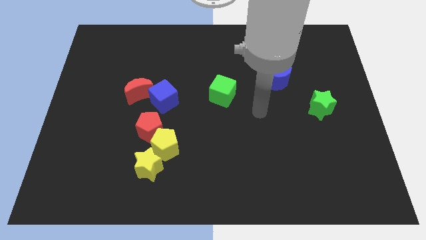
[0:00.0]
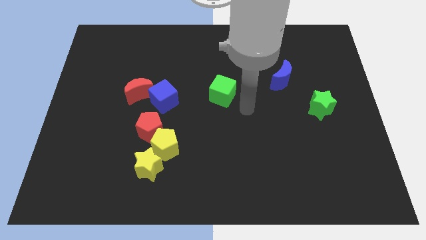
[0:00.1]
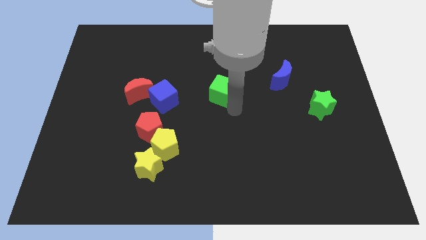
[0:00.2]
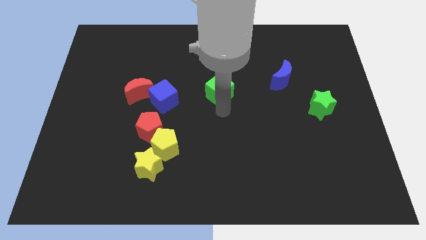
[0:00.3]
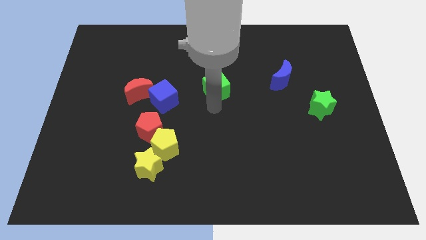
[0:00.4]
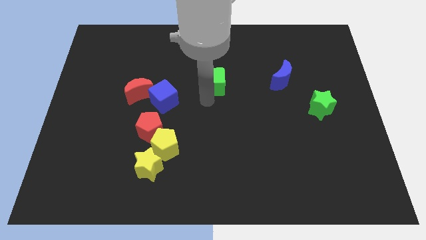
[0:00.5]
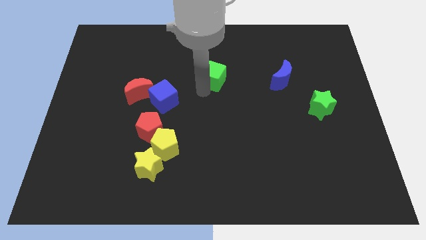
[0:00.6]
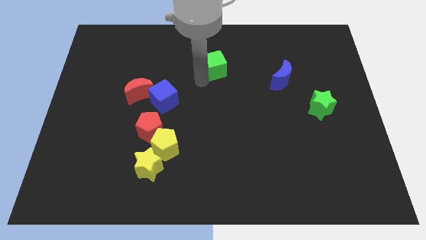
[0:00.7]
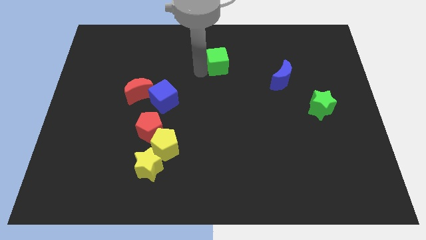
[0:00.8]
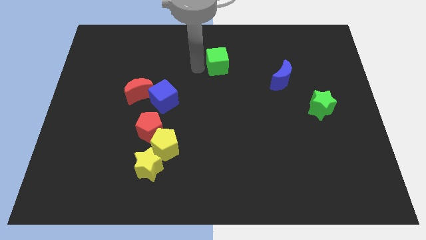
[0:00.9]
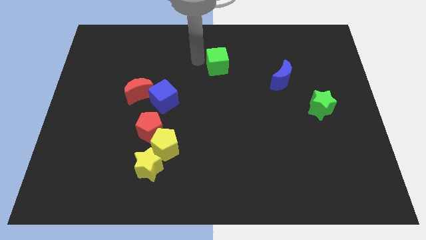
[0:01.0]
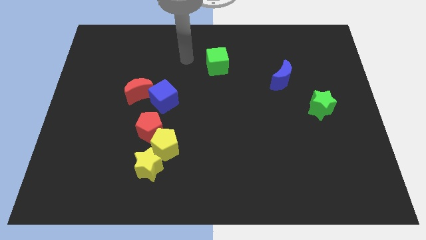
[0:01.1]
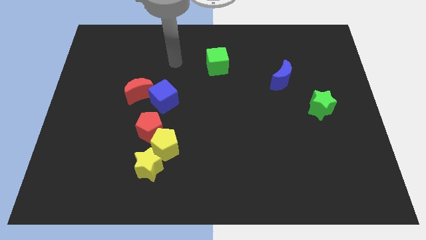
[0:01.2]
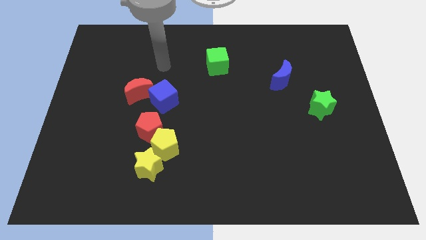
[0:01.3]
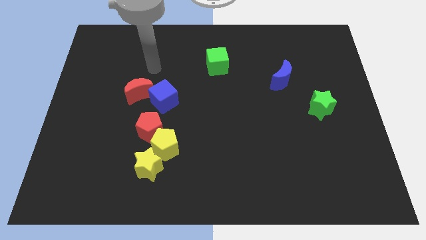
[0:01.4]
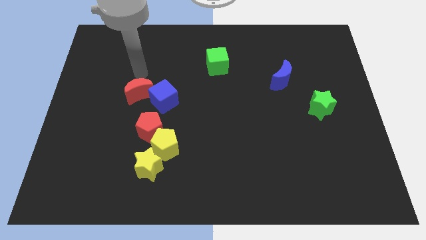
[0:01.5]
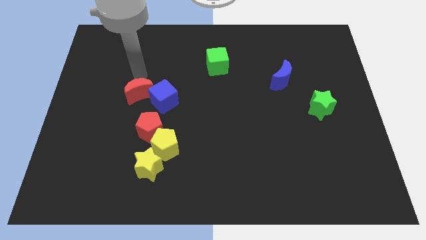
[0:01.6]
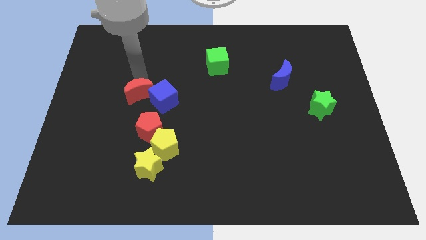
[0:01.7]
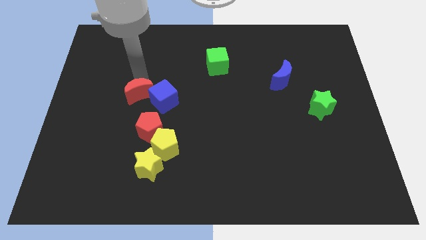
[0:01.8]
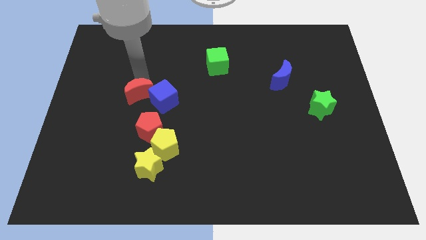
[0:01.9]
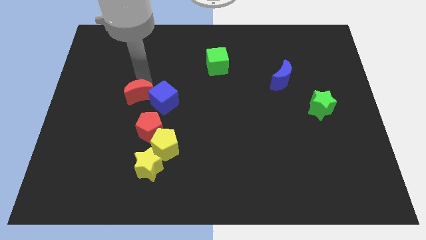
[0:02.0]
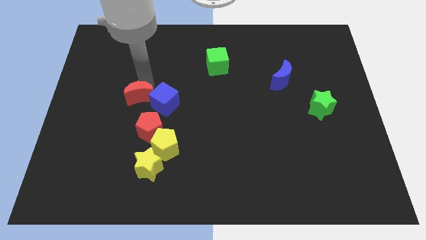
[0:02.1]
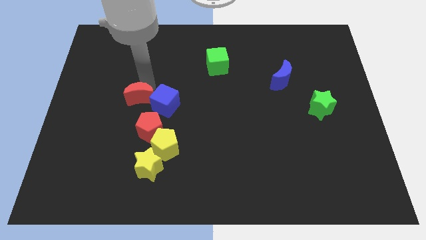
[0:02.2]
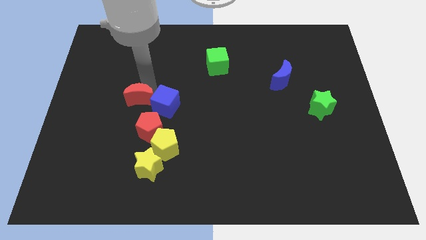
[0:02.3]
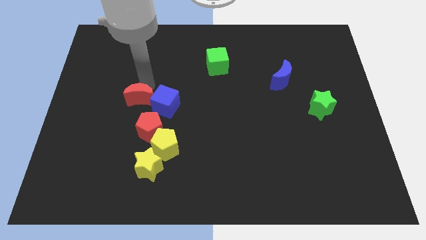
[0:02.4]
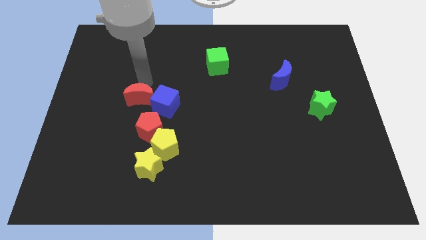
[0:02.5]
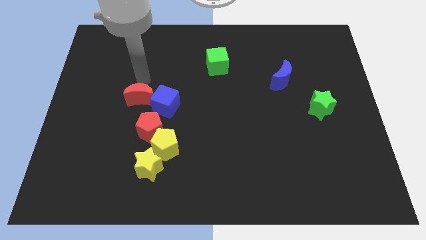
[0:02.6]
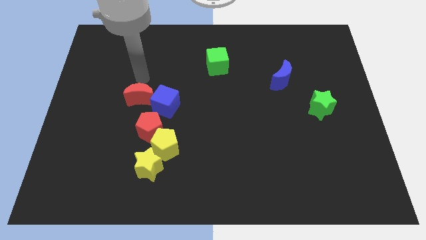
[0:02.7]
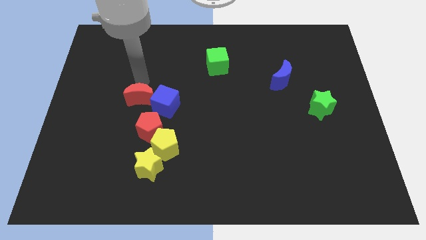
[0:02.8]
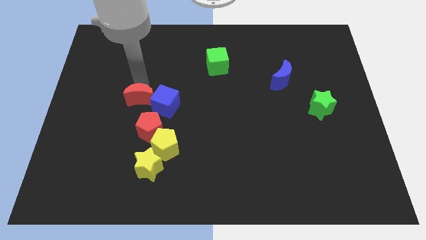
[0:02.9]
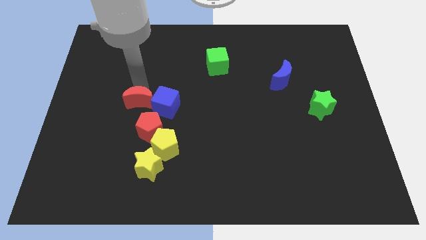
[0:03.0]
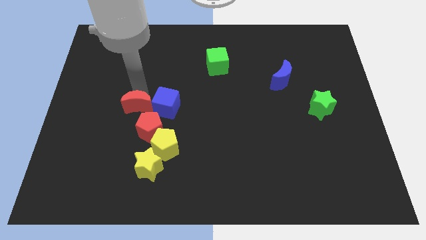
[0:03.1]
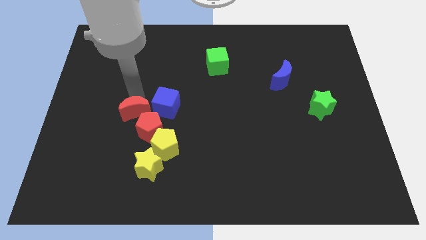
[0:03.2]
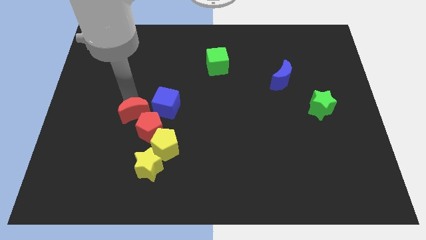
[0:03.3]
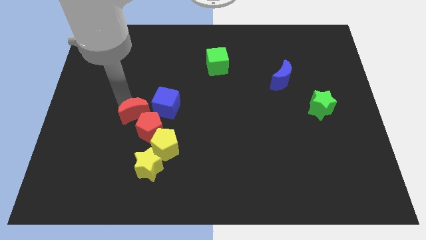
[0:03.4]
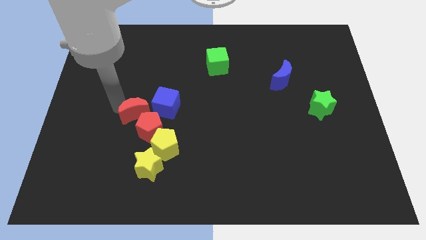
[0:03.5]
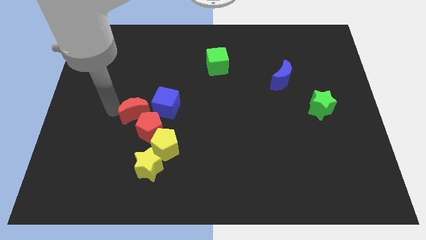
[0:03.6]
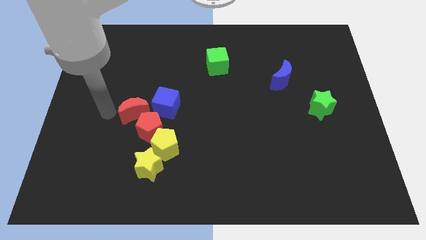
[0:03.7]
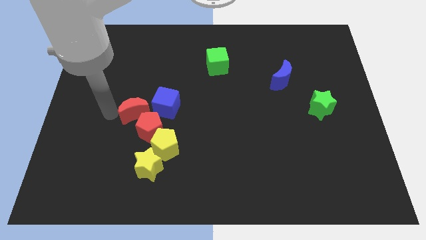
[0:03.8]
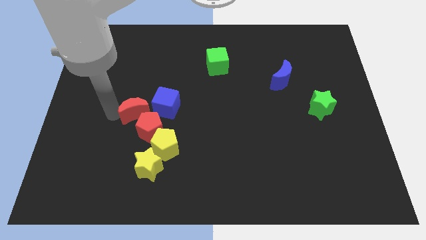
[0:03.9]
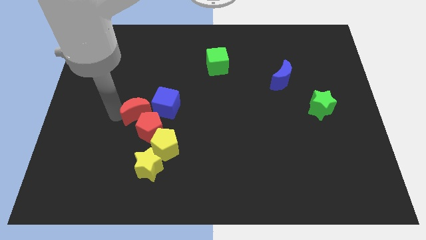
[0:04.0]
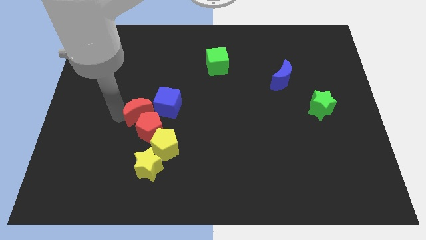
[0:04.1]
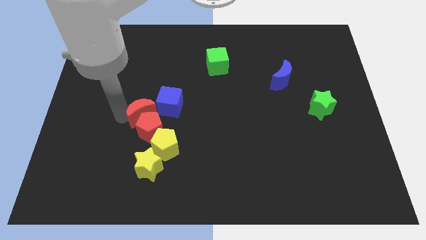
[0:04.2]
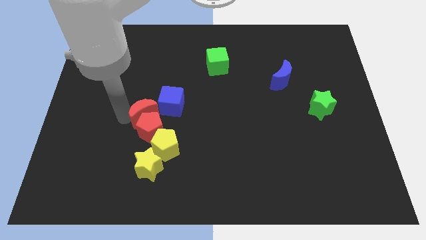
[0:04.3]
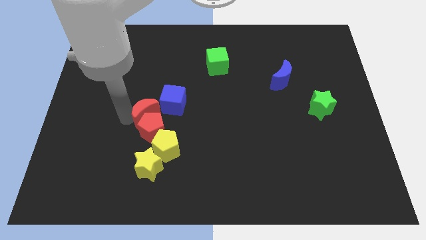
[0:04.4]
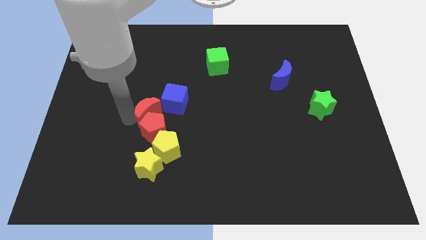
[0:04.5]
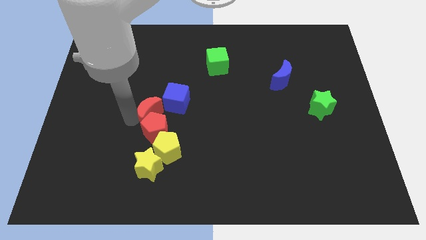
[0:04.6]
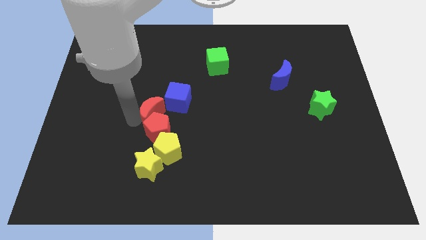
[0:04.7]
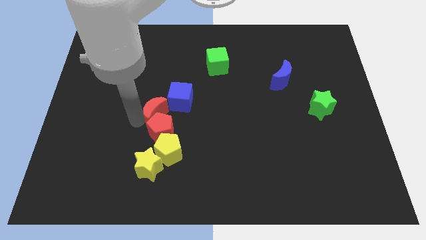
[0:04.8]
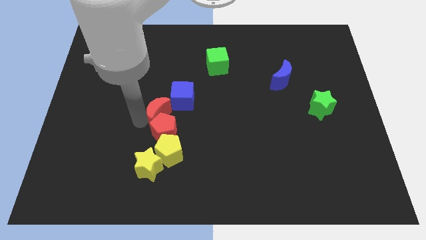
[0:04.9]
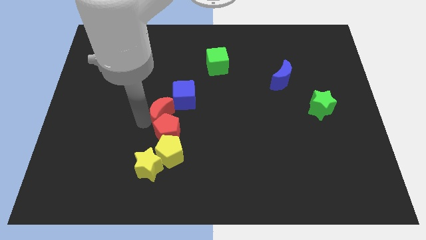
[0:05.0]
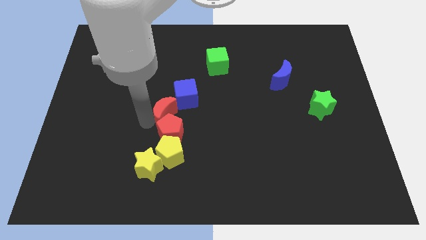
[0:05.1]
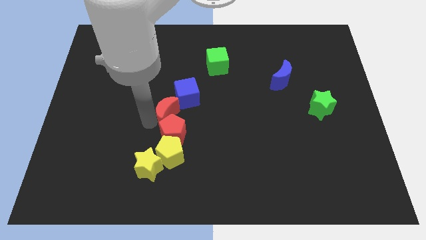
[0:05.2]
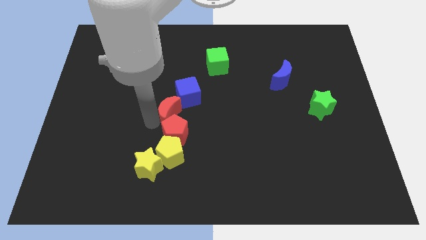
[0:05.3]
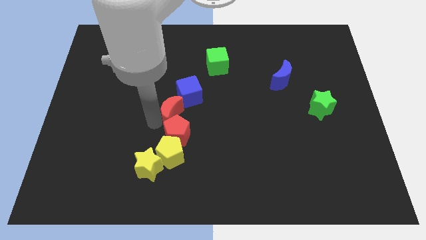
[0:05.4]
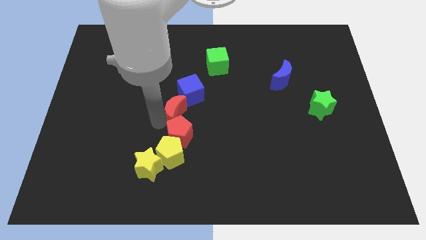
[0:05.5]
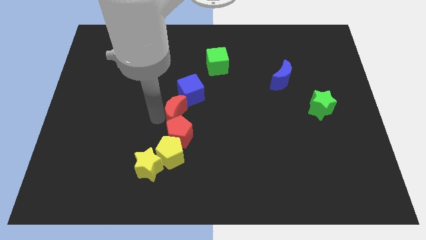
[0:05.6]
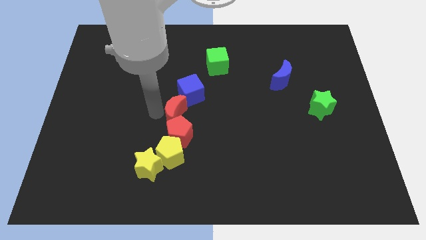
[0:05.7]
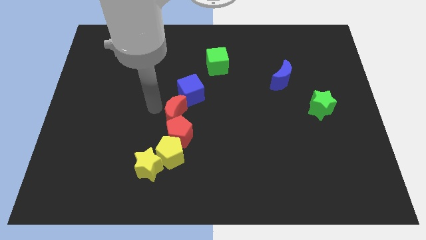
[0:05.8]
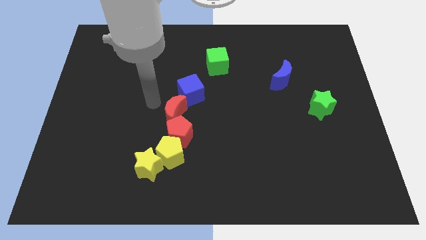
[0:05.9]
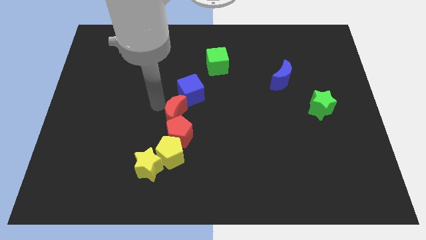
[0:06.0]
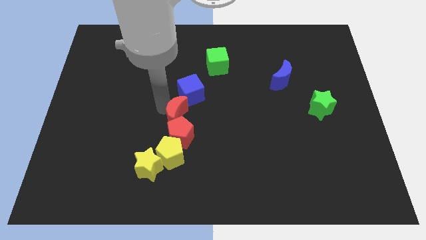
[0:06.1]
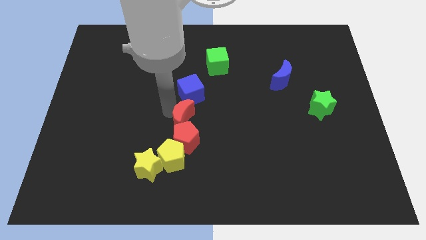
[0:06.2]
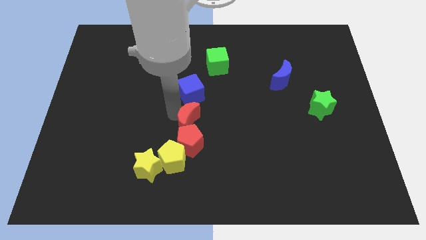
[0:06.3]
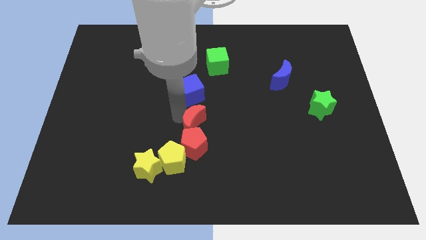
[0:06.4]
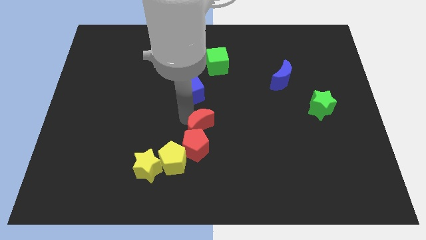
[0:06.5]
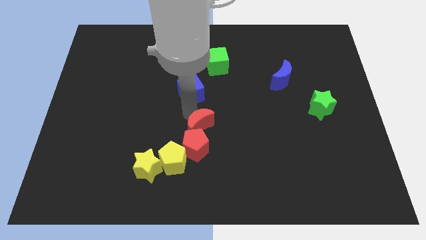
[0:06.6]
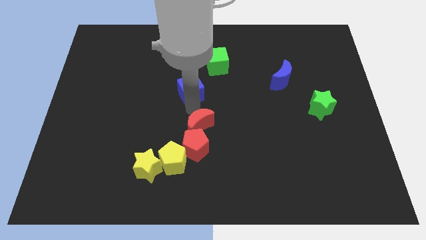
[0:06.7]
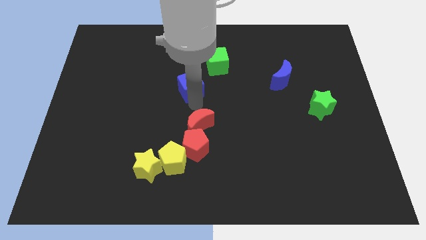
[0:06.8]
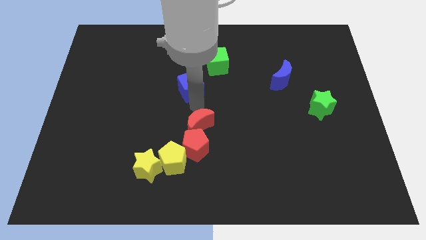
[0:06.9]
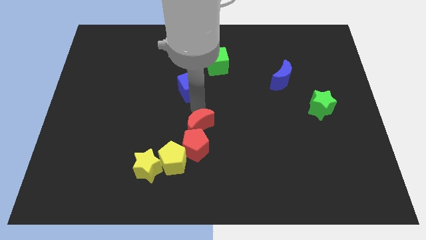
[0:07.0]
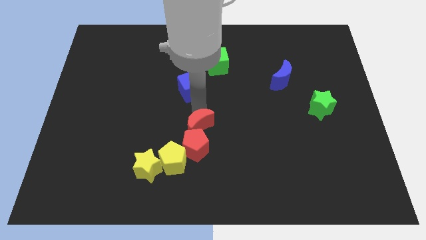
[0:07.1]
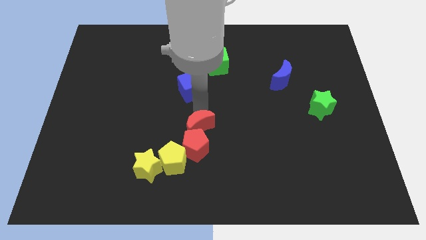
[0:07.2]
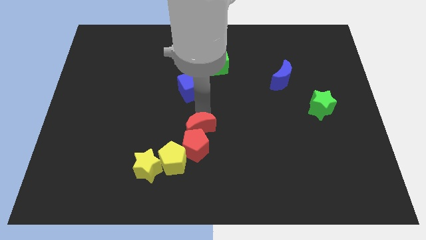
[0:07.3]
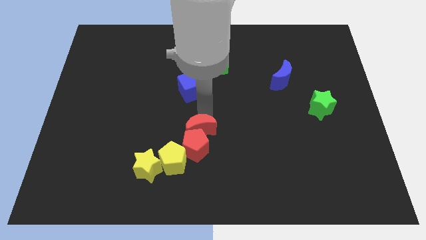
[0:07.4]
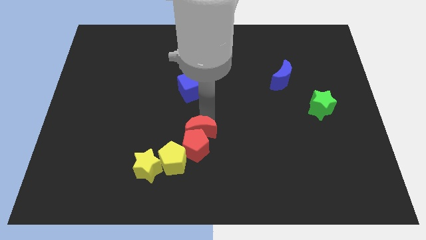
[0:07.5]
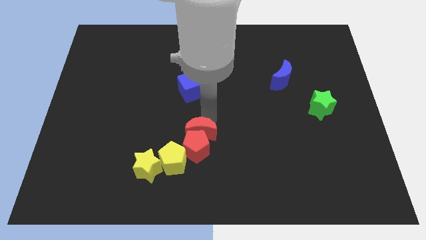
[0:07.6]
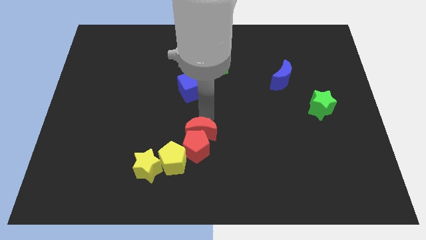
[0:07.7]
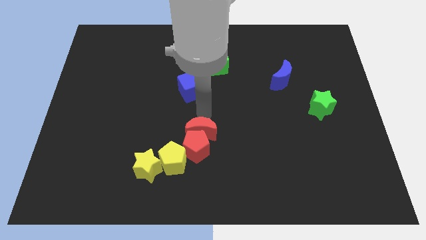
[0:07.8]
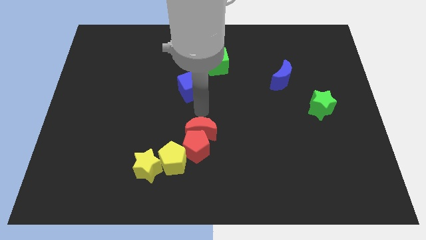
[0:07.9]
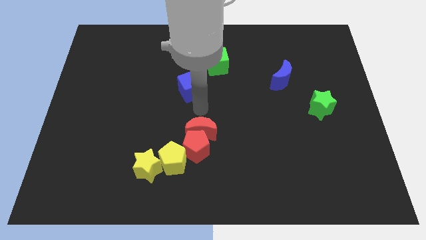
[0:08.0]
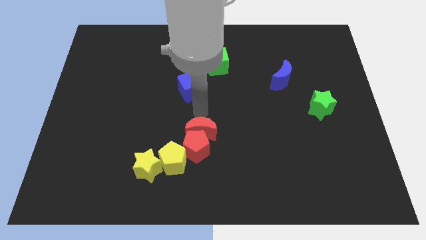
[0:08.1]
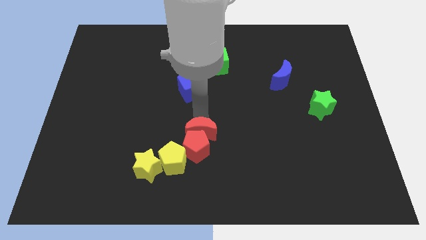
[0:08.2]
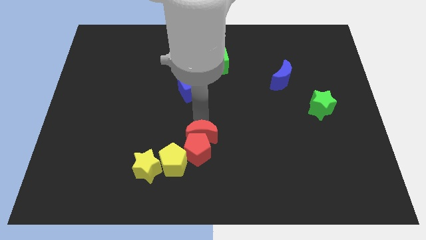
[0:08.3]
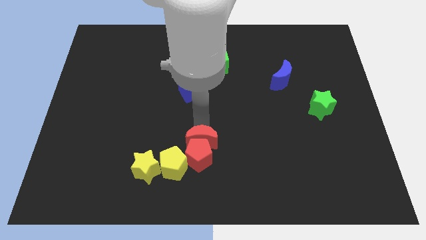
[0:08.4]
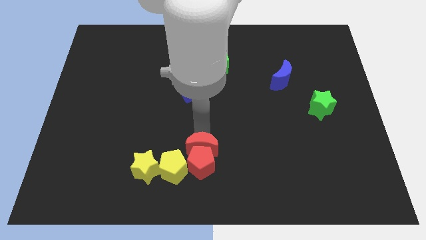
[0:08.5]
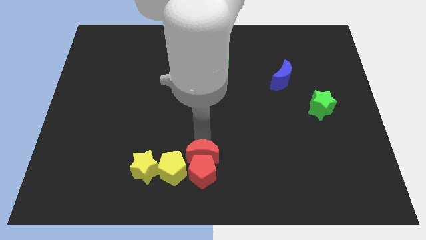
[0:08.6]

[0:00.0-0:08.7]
slide the red moon to the bottom
